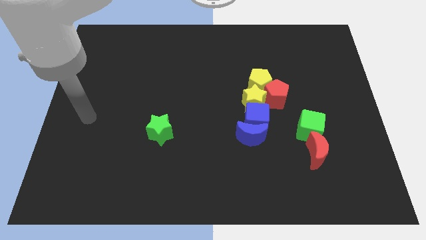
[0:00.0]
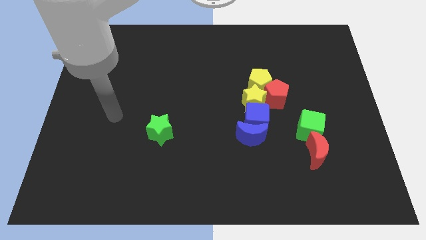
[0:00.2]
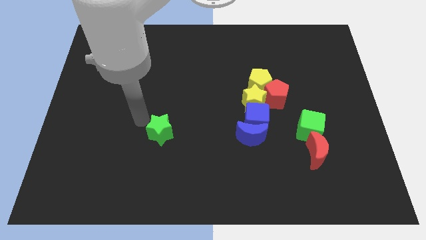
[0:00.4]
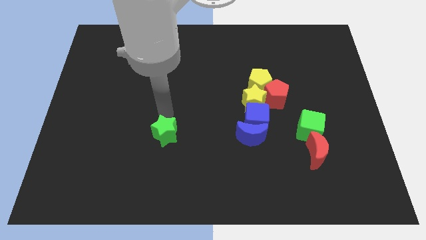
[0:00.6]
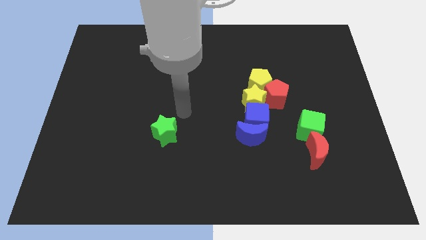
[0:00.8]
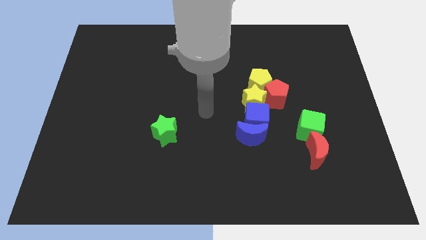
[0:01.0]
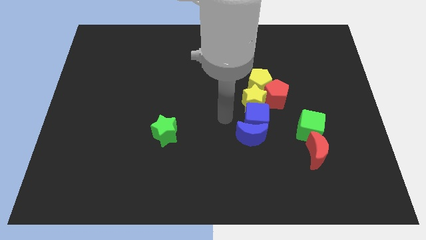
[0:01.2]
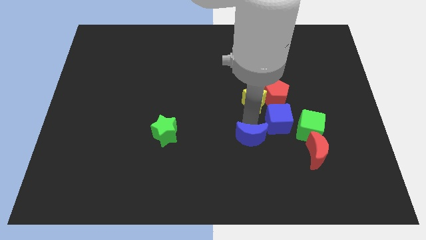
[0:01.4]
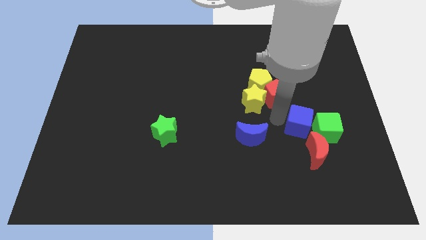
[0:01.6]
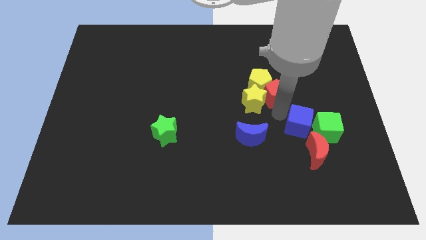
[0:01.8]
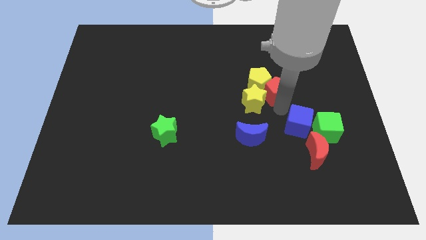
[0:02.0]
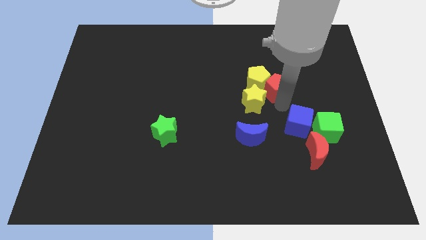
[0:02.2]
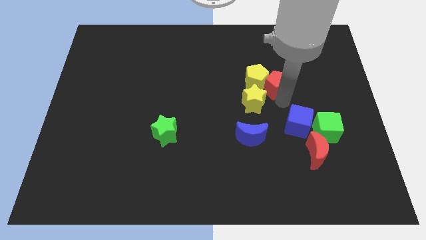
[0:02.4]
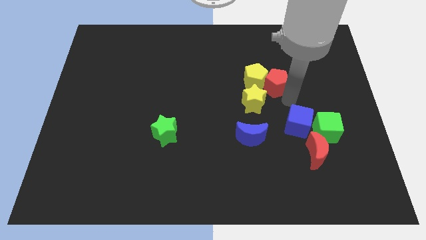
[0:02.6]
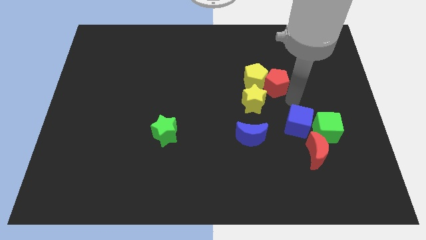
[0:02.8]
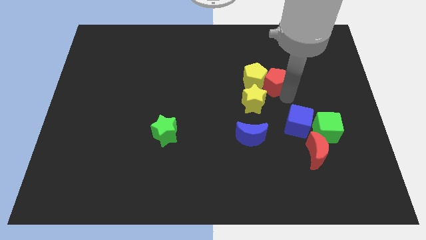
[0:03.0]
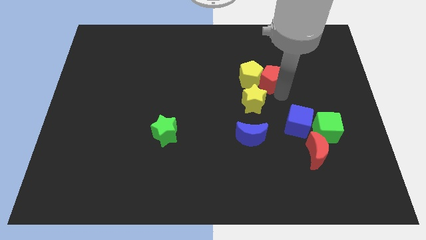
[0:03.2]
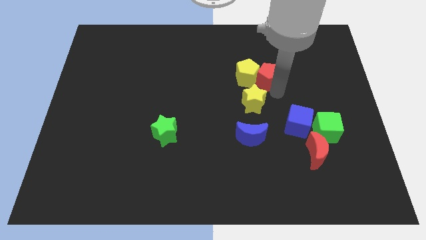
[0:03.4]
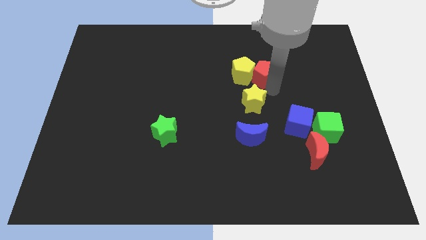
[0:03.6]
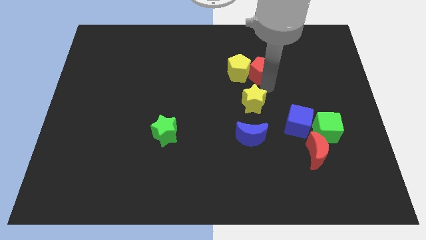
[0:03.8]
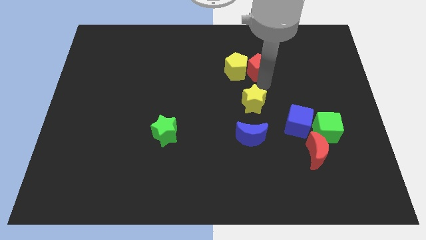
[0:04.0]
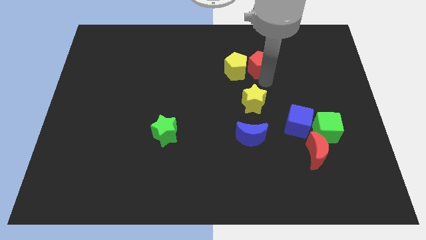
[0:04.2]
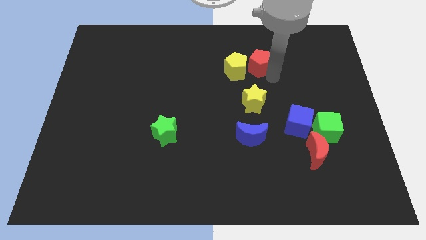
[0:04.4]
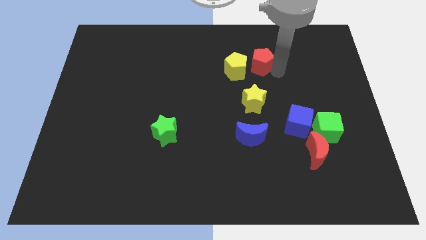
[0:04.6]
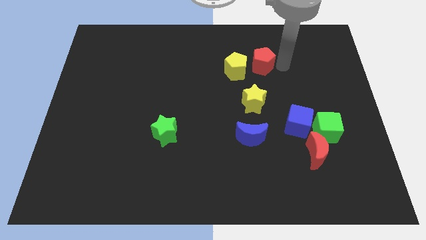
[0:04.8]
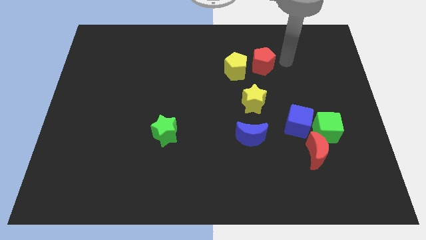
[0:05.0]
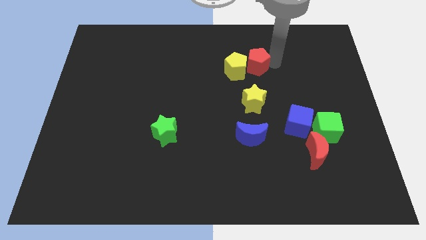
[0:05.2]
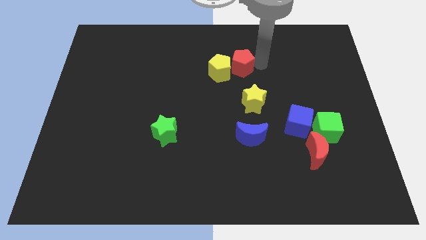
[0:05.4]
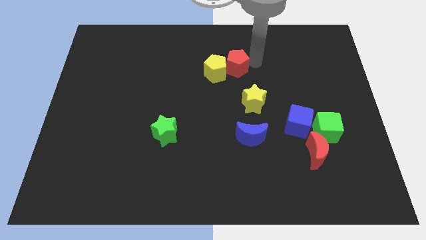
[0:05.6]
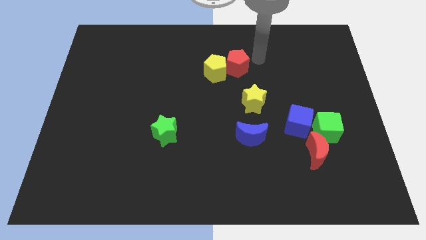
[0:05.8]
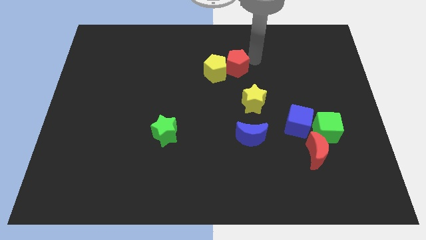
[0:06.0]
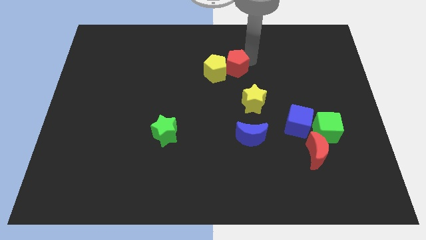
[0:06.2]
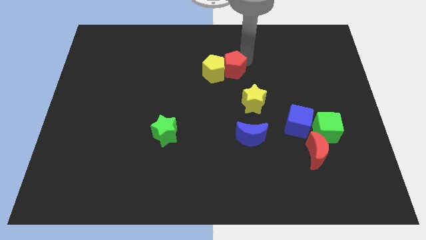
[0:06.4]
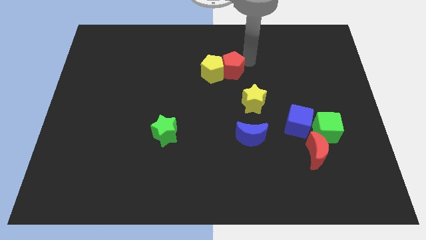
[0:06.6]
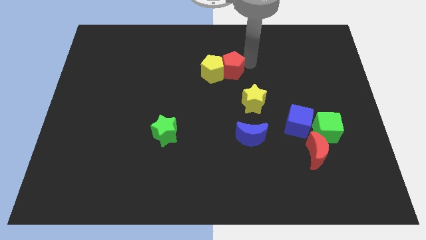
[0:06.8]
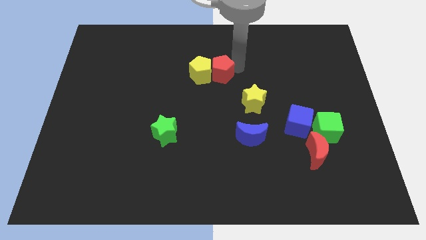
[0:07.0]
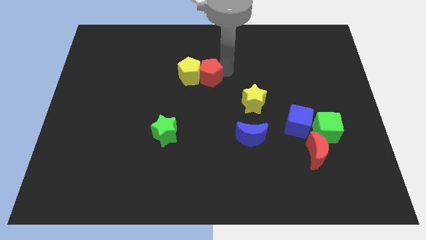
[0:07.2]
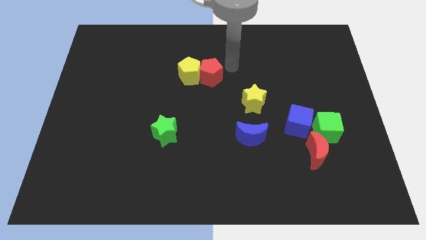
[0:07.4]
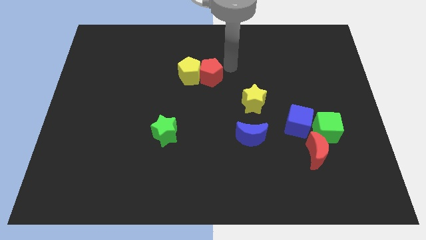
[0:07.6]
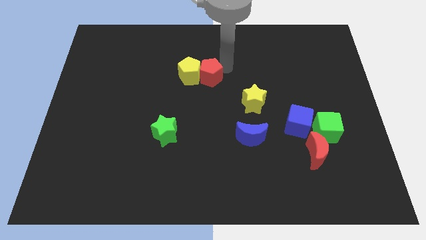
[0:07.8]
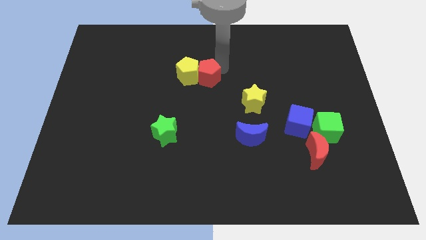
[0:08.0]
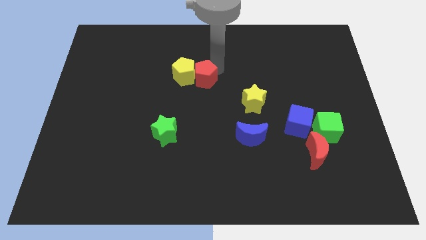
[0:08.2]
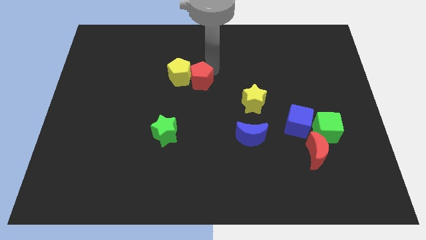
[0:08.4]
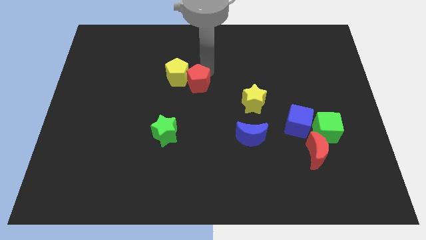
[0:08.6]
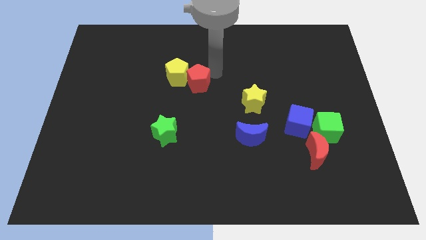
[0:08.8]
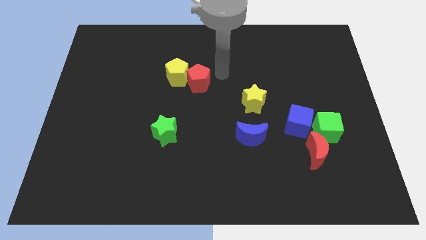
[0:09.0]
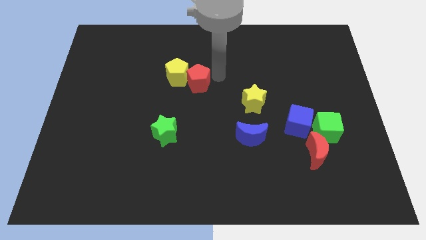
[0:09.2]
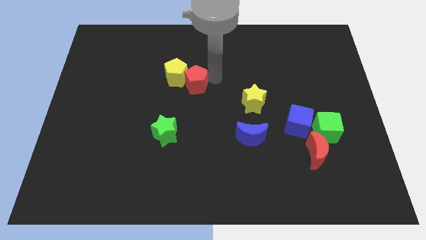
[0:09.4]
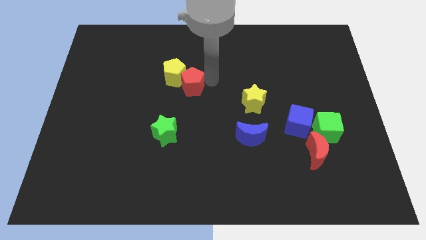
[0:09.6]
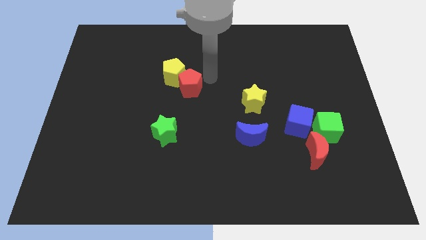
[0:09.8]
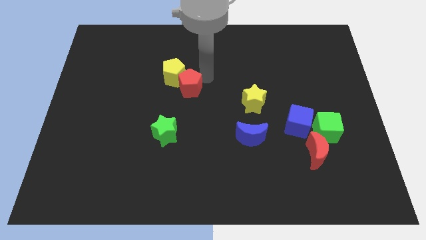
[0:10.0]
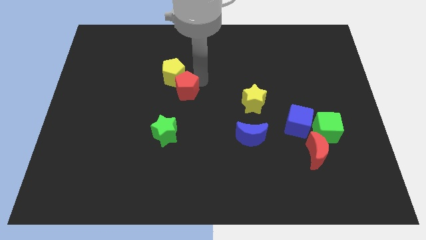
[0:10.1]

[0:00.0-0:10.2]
slide the red pentagon to the top side of the green star

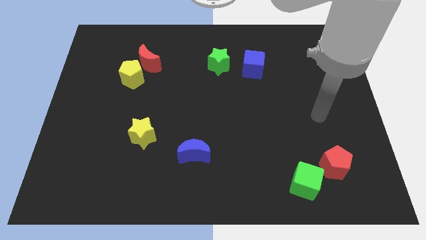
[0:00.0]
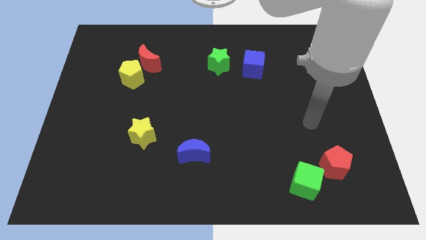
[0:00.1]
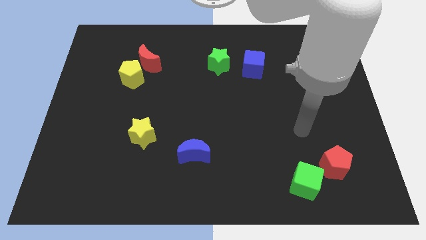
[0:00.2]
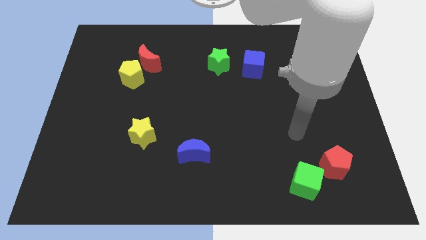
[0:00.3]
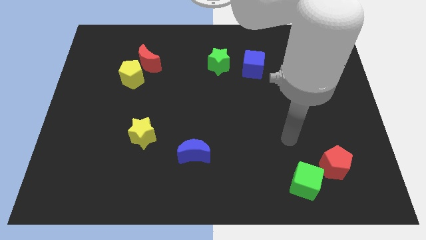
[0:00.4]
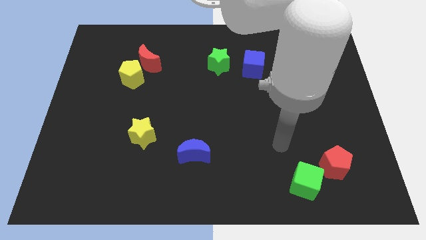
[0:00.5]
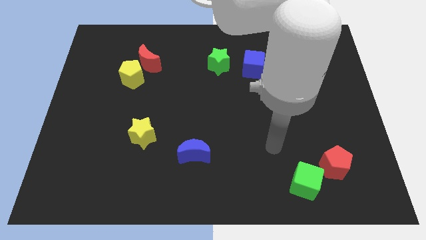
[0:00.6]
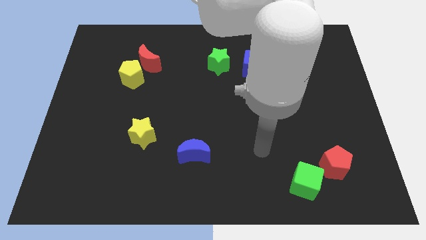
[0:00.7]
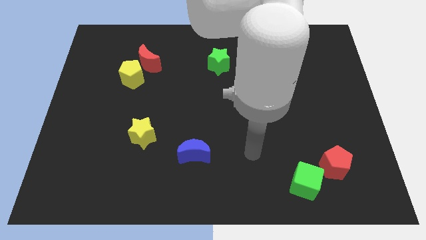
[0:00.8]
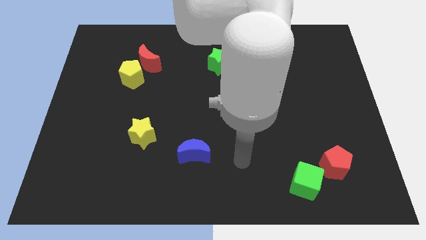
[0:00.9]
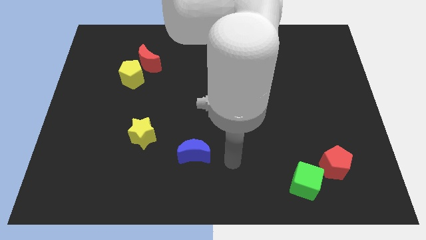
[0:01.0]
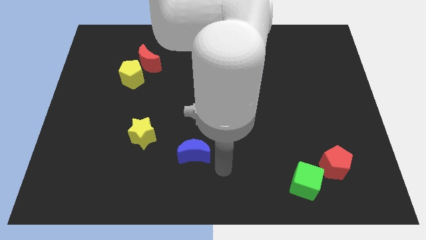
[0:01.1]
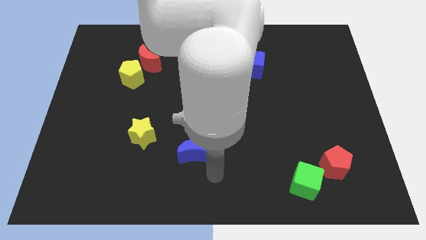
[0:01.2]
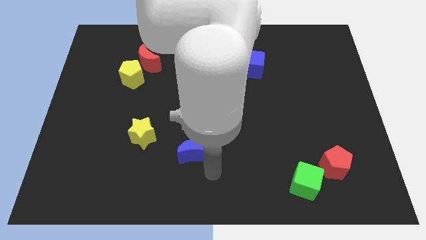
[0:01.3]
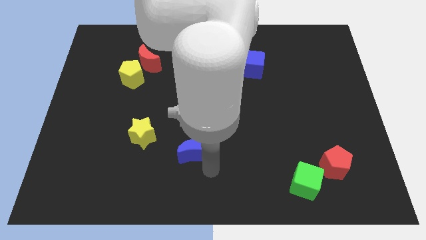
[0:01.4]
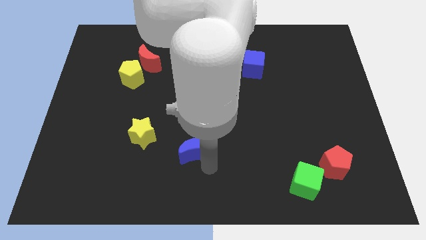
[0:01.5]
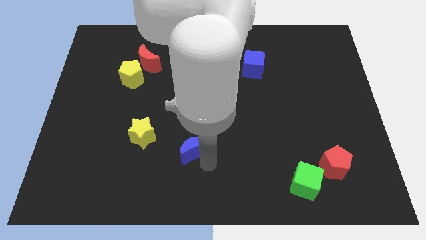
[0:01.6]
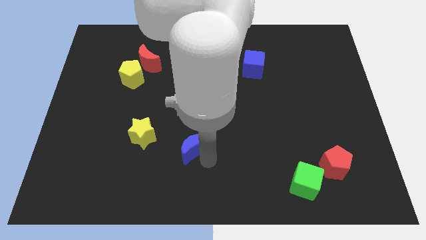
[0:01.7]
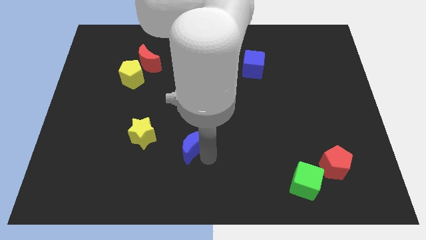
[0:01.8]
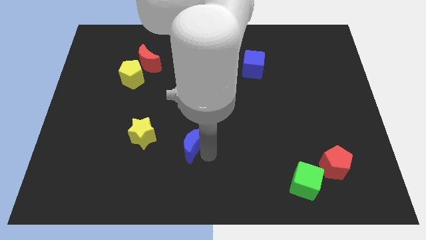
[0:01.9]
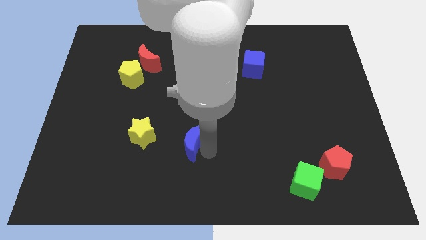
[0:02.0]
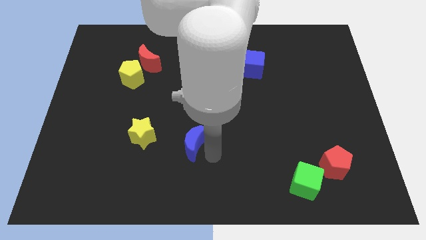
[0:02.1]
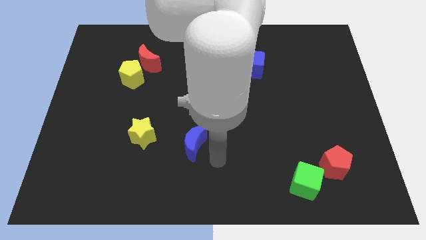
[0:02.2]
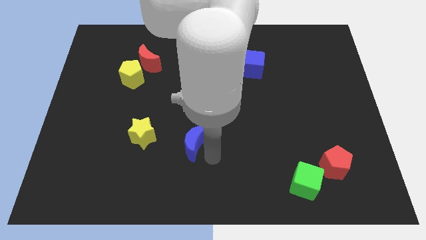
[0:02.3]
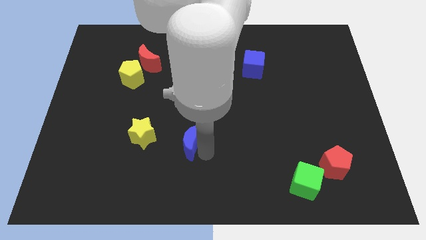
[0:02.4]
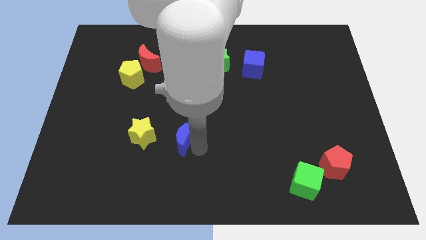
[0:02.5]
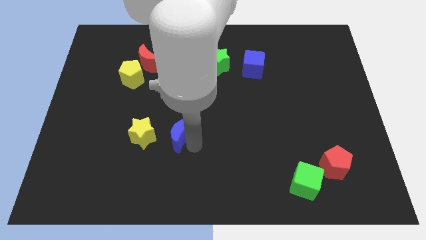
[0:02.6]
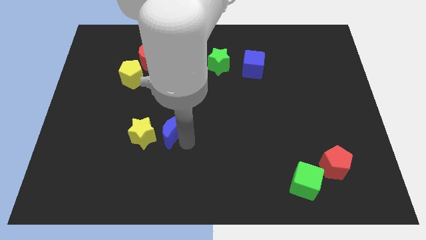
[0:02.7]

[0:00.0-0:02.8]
slide the blue moon diagonally up and to the right of the yellow star
